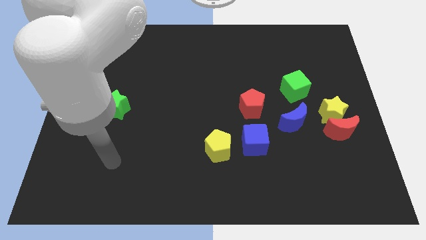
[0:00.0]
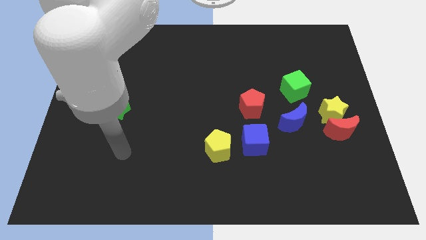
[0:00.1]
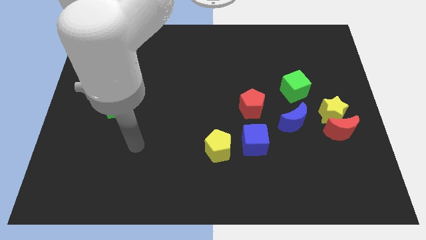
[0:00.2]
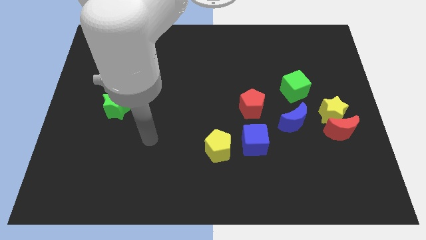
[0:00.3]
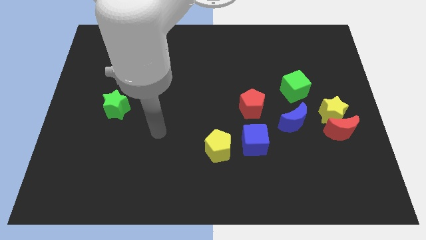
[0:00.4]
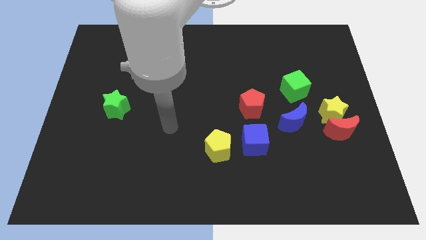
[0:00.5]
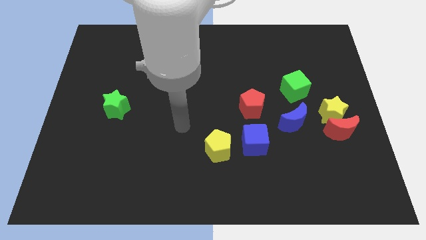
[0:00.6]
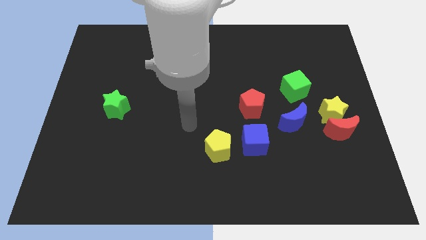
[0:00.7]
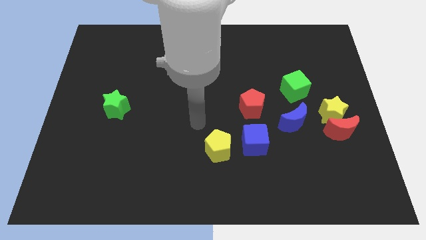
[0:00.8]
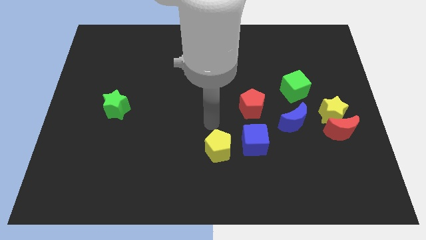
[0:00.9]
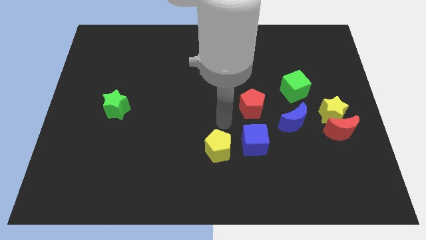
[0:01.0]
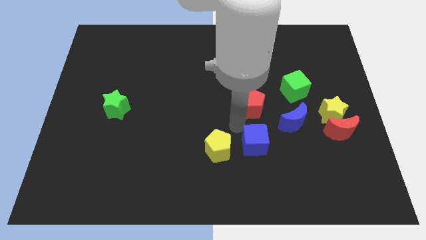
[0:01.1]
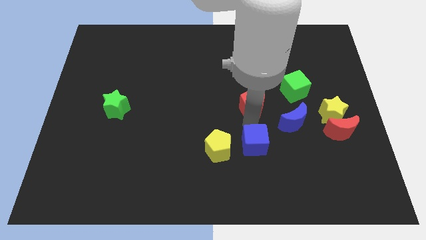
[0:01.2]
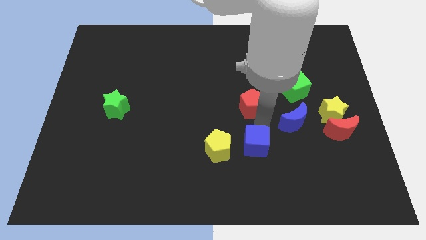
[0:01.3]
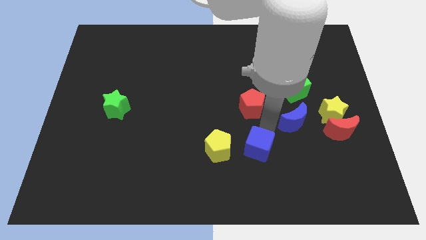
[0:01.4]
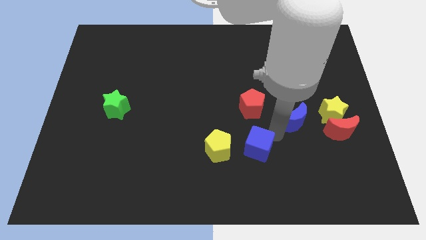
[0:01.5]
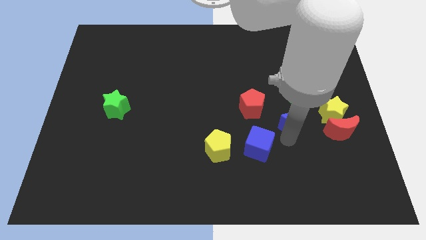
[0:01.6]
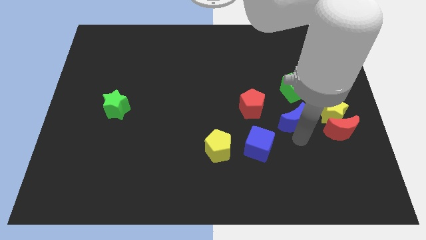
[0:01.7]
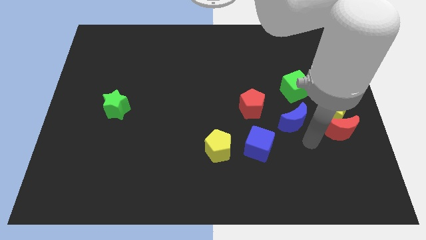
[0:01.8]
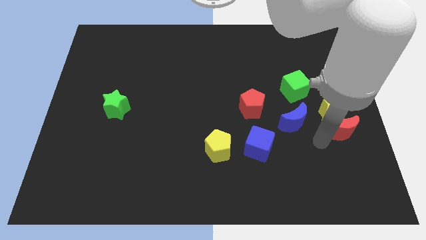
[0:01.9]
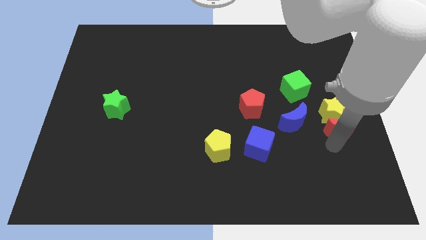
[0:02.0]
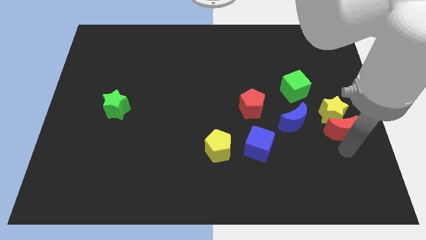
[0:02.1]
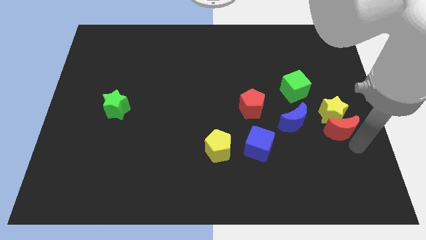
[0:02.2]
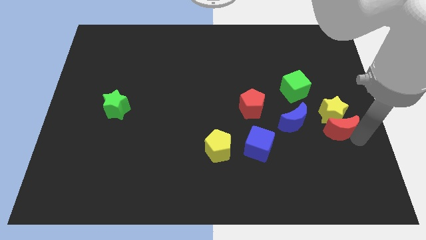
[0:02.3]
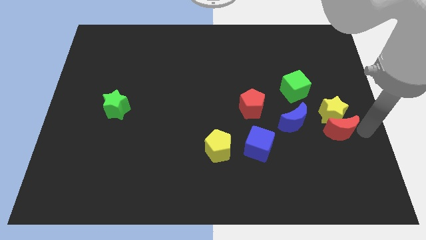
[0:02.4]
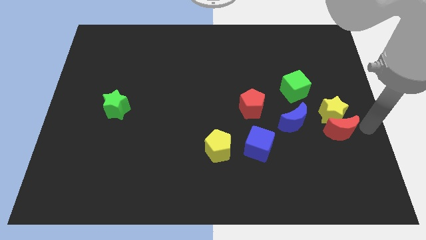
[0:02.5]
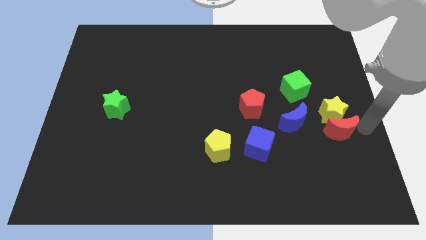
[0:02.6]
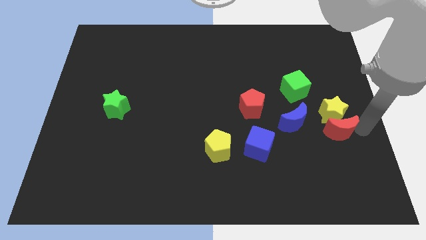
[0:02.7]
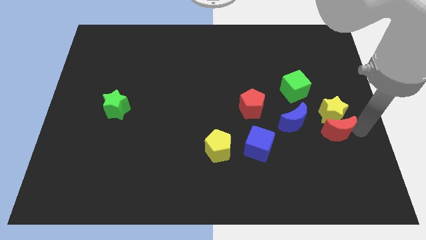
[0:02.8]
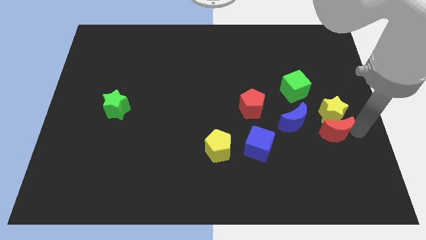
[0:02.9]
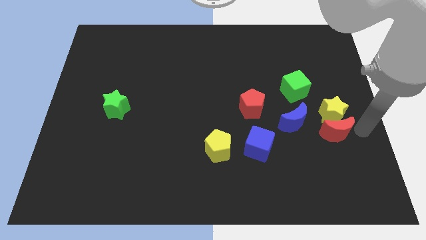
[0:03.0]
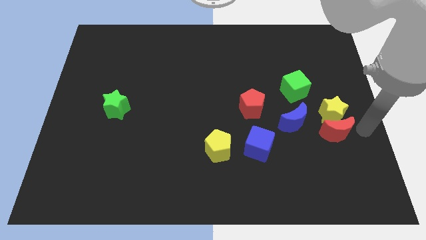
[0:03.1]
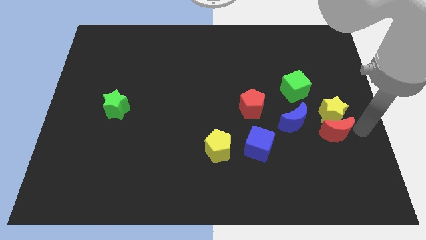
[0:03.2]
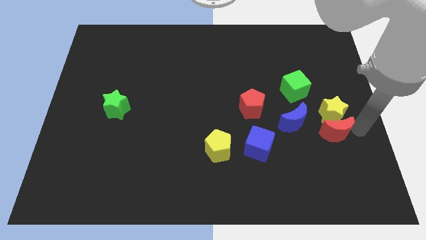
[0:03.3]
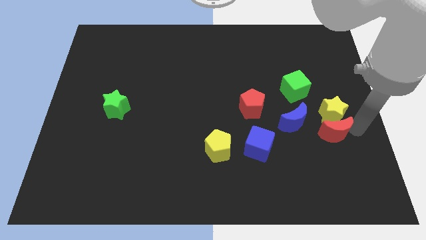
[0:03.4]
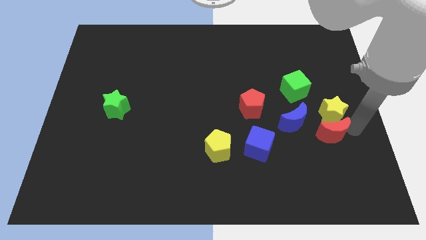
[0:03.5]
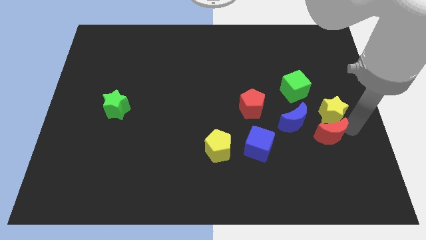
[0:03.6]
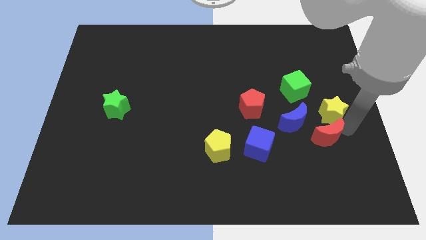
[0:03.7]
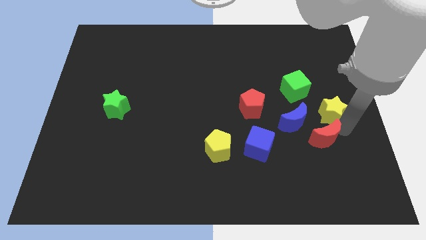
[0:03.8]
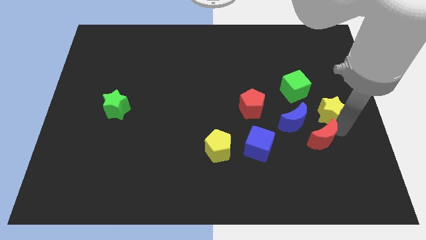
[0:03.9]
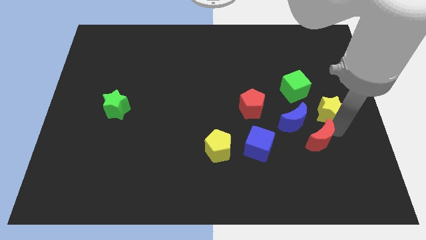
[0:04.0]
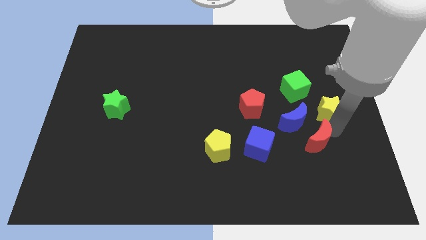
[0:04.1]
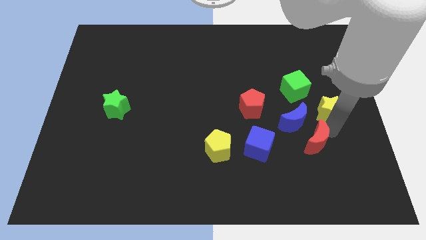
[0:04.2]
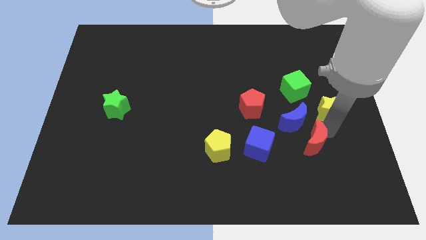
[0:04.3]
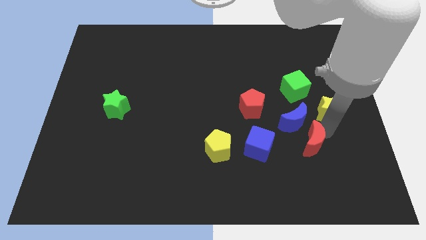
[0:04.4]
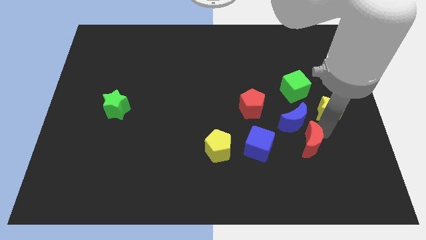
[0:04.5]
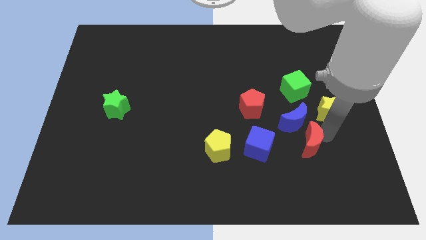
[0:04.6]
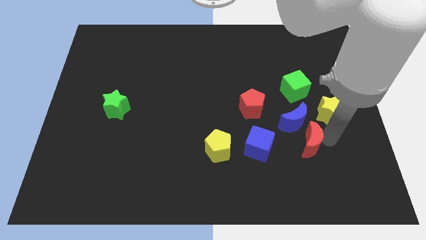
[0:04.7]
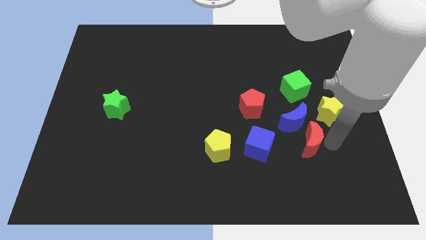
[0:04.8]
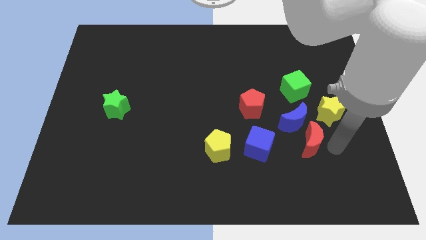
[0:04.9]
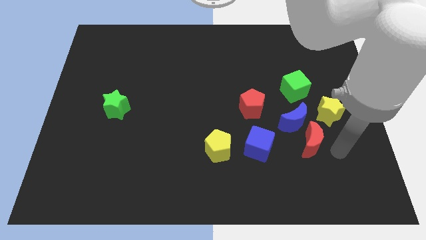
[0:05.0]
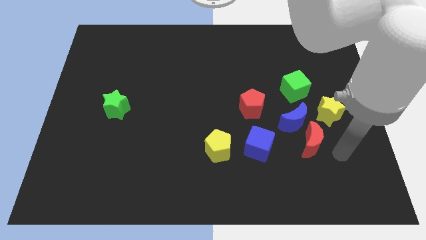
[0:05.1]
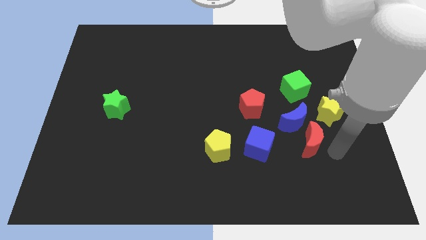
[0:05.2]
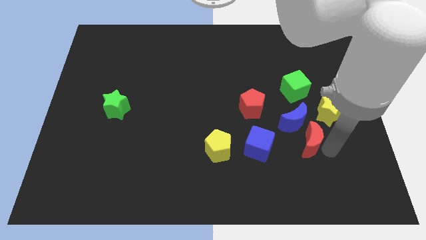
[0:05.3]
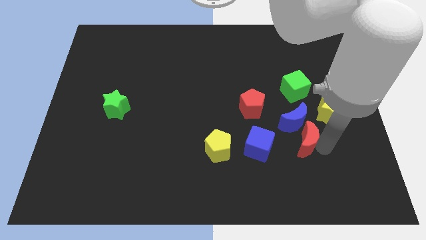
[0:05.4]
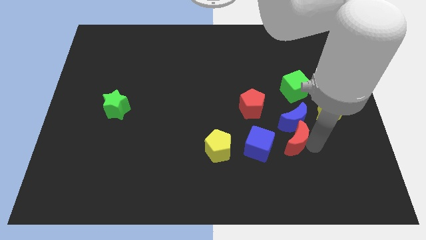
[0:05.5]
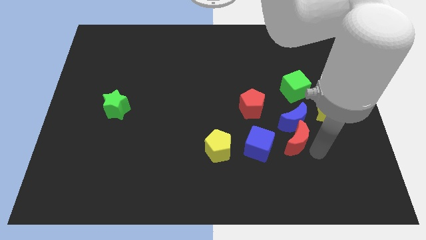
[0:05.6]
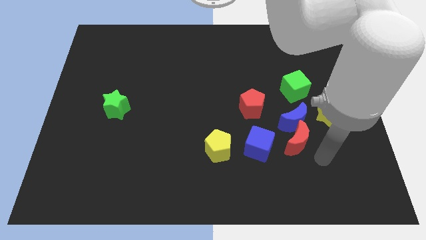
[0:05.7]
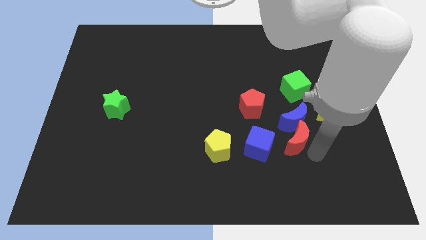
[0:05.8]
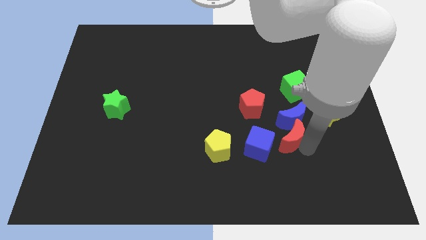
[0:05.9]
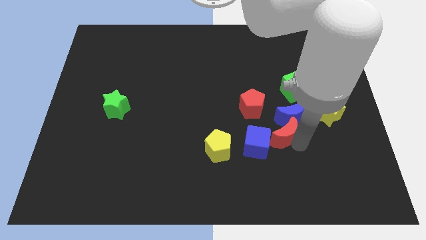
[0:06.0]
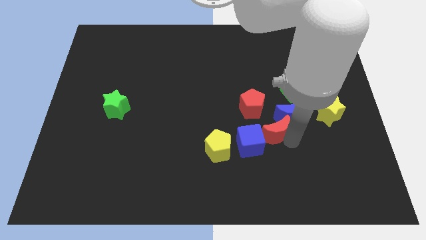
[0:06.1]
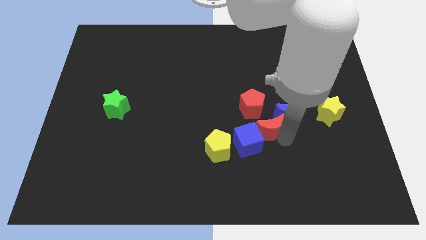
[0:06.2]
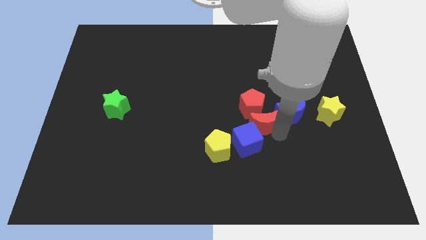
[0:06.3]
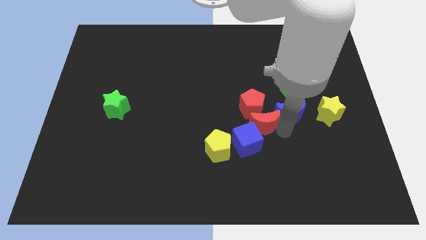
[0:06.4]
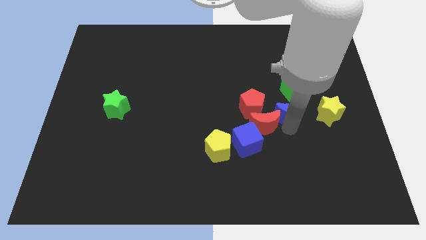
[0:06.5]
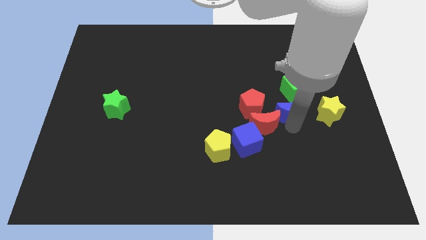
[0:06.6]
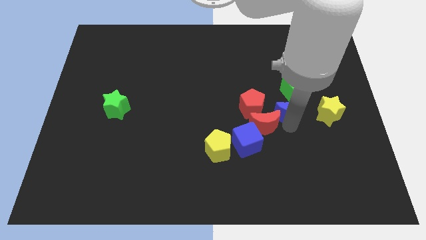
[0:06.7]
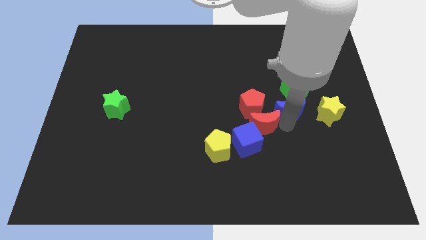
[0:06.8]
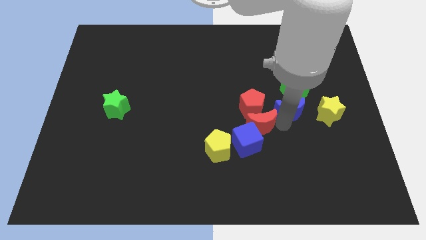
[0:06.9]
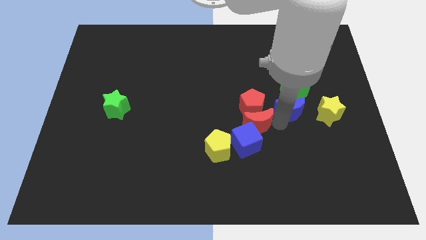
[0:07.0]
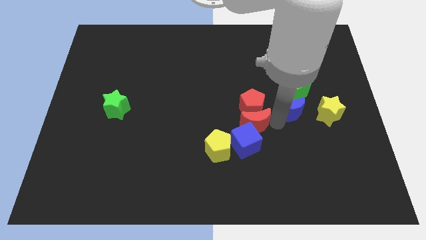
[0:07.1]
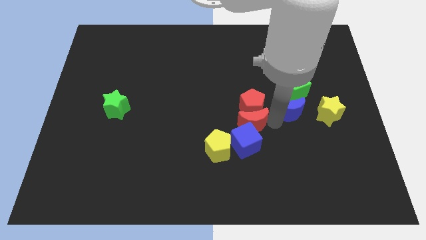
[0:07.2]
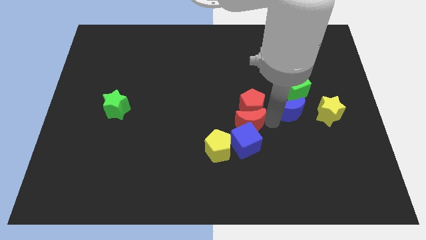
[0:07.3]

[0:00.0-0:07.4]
push the red moon left

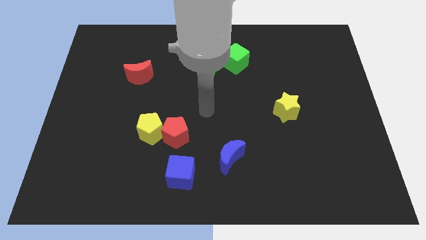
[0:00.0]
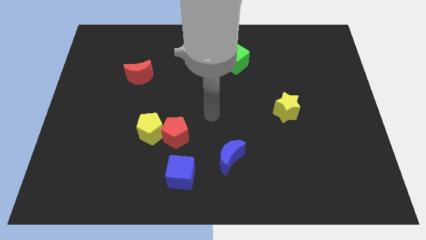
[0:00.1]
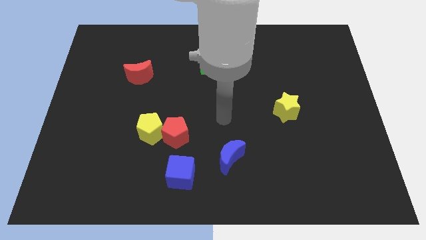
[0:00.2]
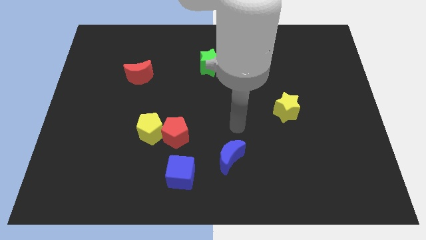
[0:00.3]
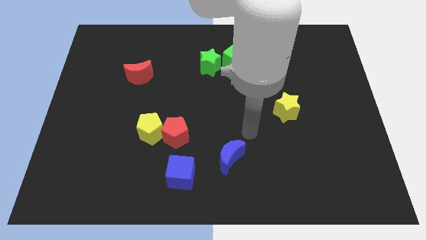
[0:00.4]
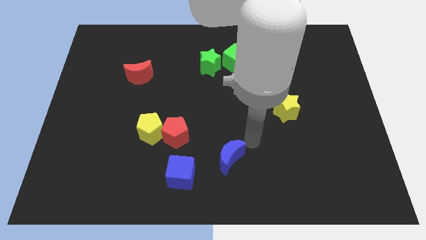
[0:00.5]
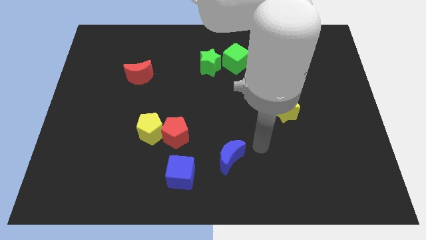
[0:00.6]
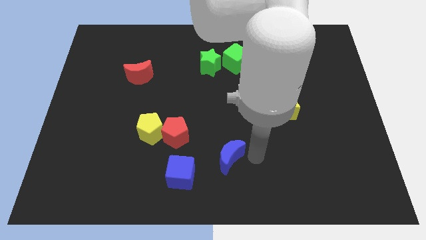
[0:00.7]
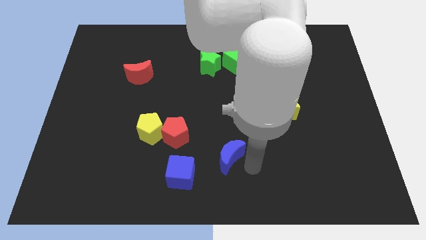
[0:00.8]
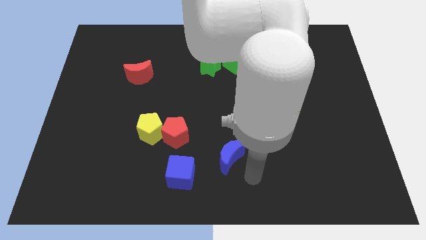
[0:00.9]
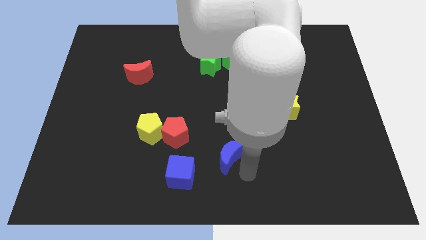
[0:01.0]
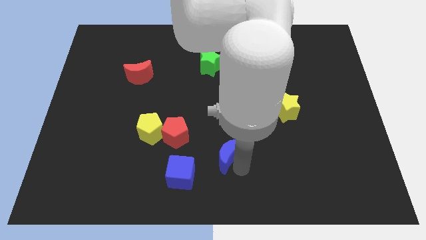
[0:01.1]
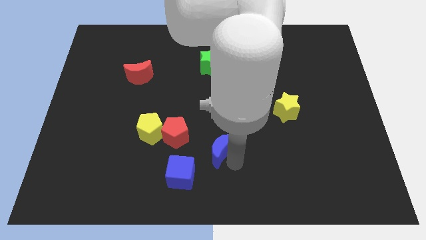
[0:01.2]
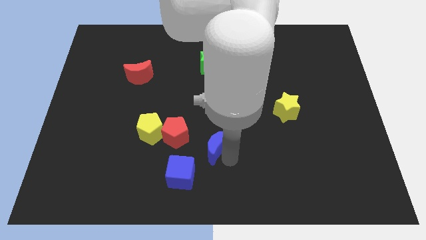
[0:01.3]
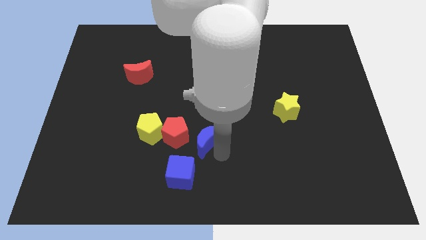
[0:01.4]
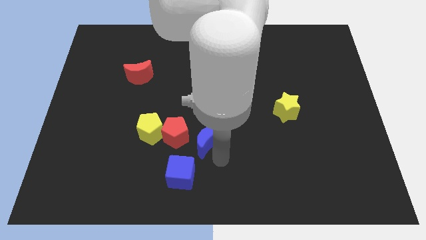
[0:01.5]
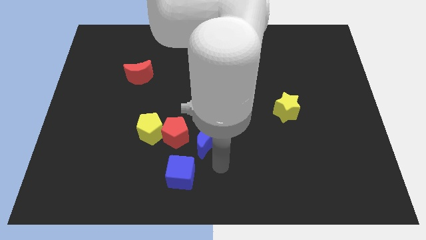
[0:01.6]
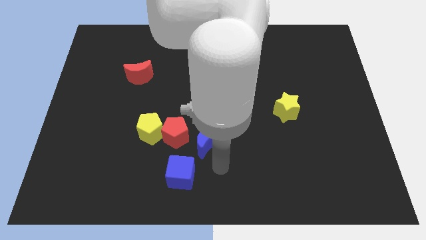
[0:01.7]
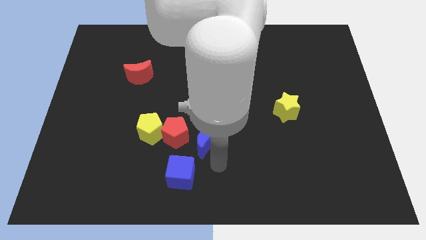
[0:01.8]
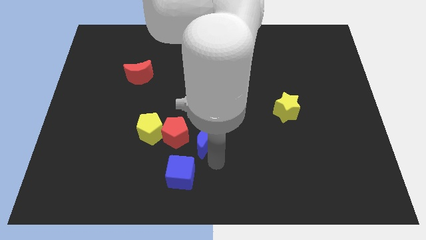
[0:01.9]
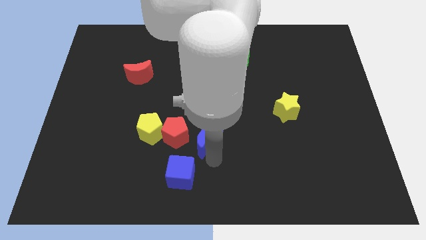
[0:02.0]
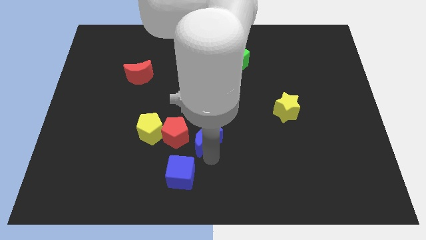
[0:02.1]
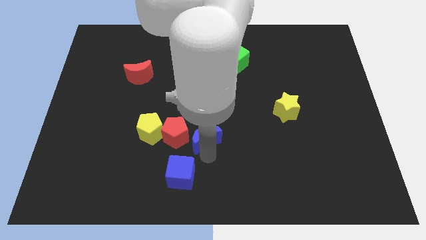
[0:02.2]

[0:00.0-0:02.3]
push the blue moon a little bit upwards and then to the left
